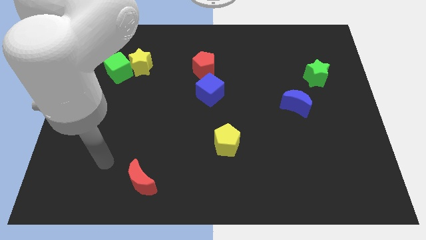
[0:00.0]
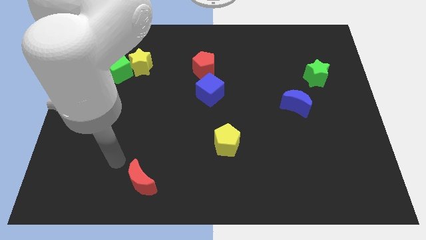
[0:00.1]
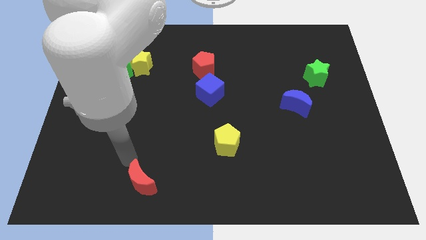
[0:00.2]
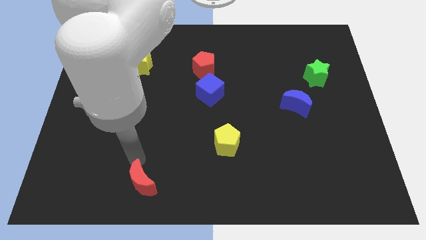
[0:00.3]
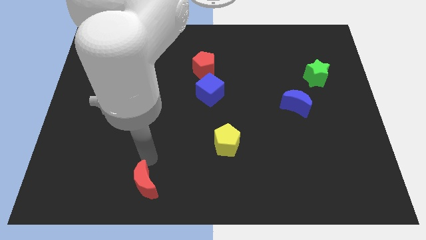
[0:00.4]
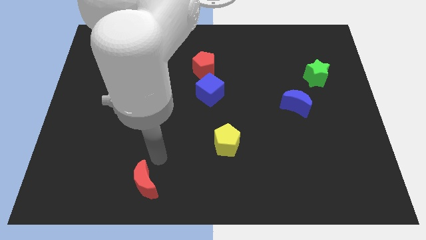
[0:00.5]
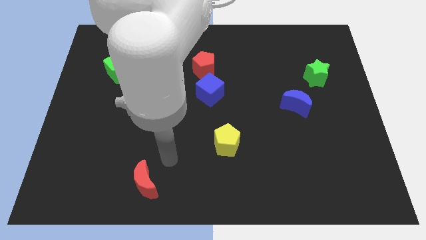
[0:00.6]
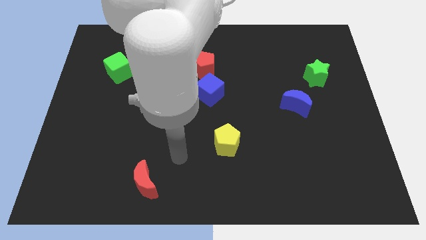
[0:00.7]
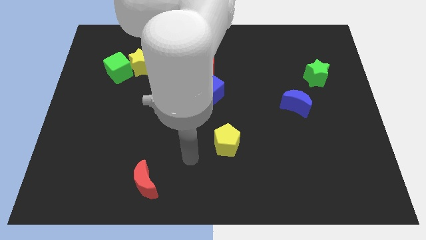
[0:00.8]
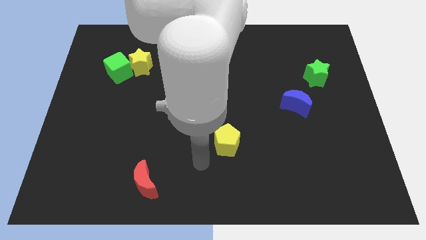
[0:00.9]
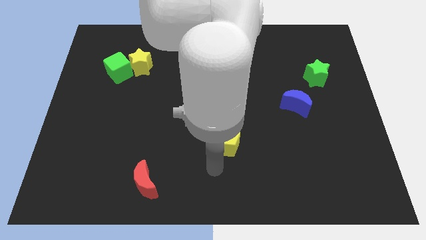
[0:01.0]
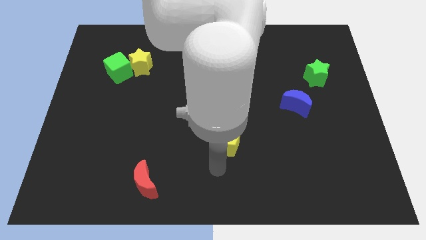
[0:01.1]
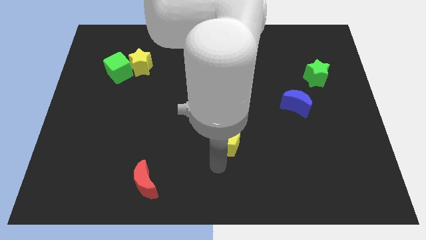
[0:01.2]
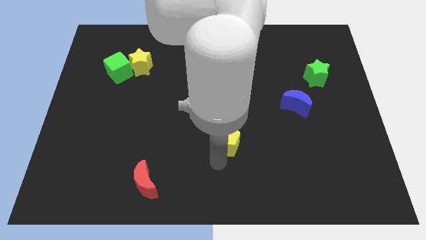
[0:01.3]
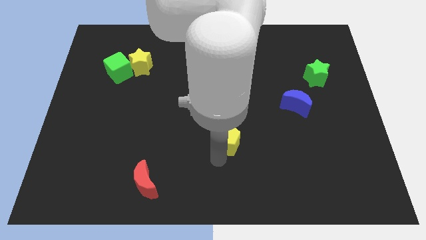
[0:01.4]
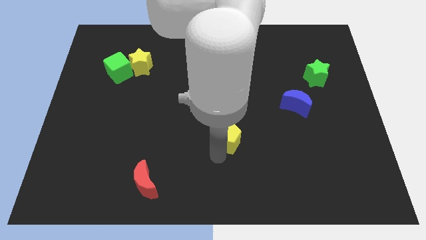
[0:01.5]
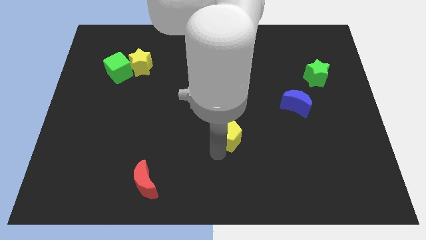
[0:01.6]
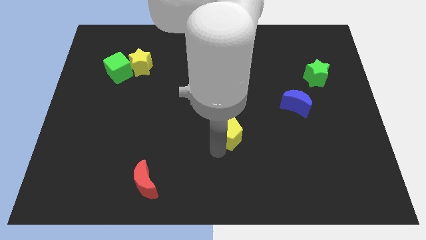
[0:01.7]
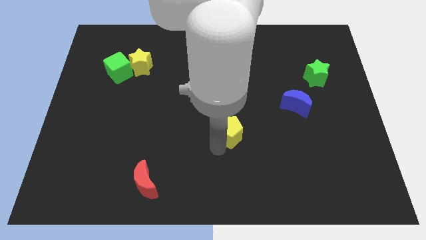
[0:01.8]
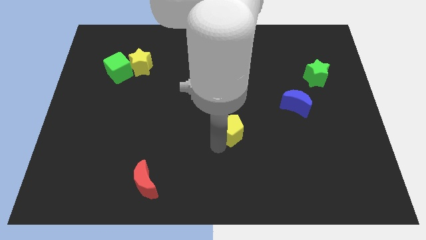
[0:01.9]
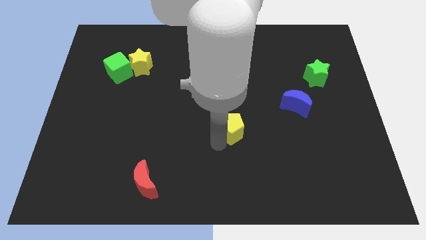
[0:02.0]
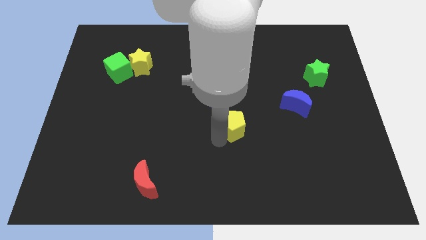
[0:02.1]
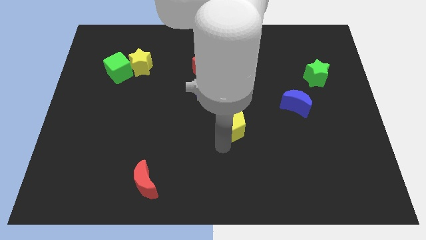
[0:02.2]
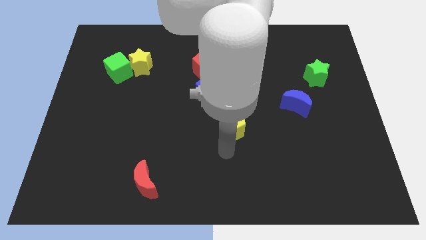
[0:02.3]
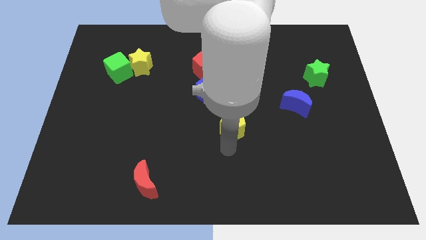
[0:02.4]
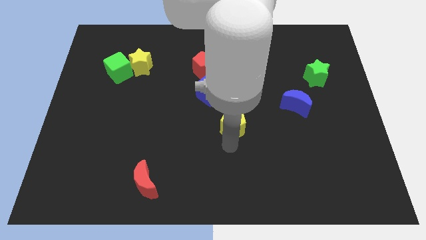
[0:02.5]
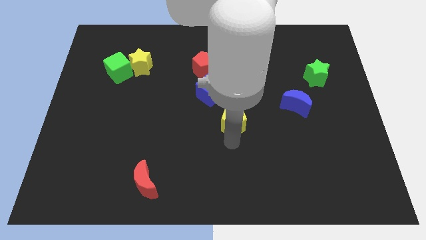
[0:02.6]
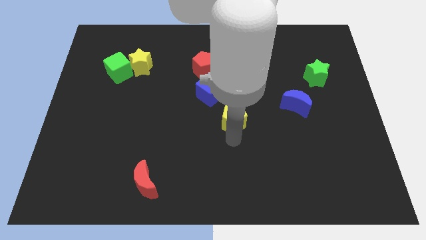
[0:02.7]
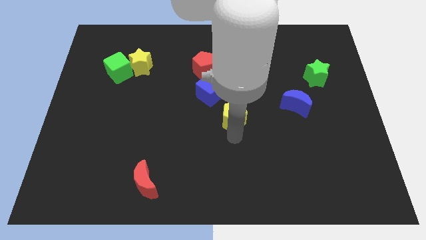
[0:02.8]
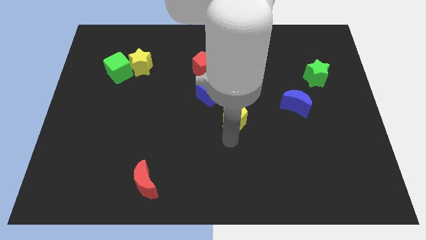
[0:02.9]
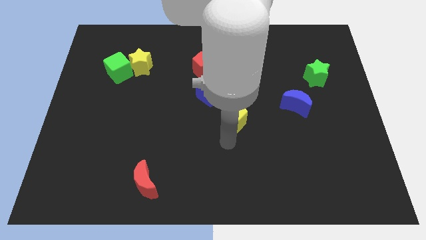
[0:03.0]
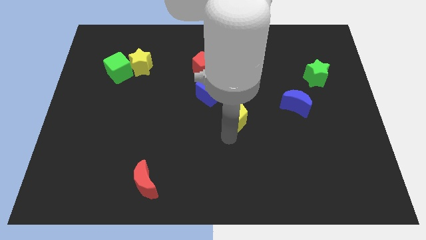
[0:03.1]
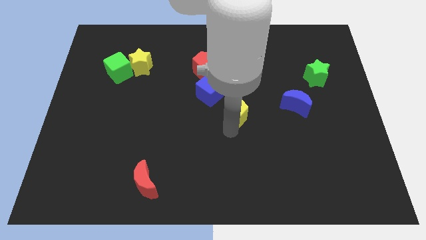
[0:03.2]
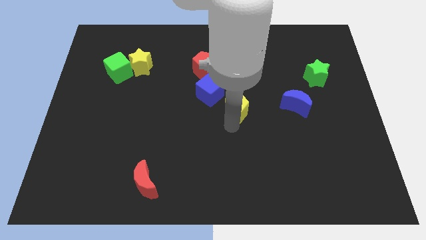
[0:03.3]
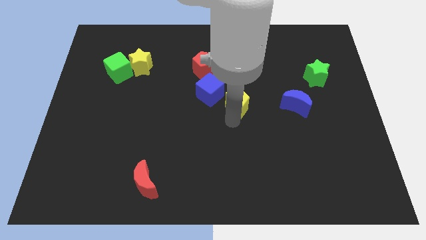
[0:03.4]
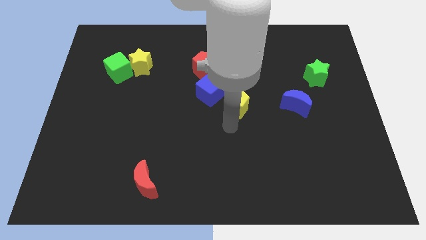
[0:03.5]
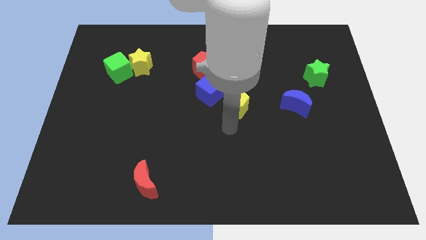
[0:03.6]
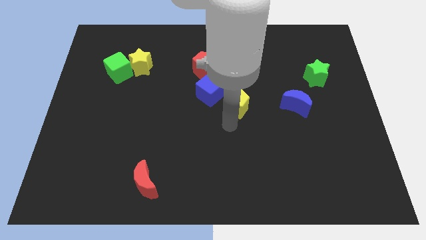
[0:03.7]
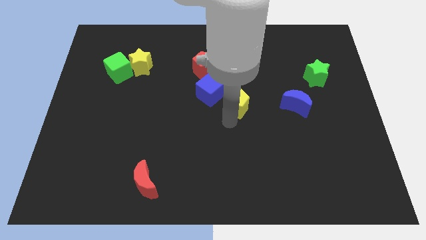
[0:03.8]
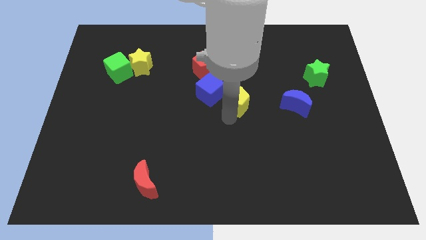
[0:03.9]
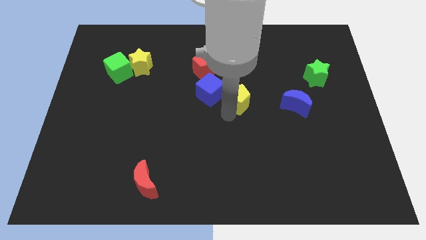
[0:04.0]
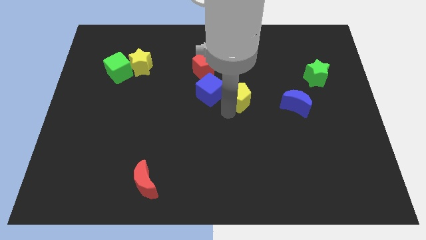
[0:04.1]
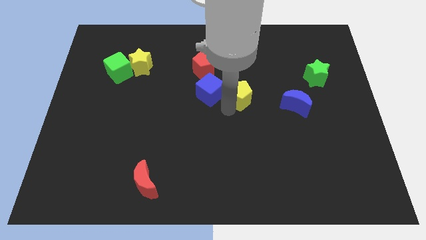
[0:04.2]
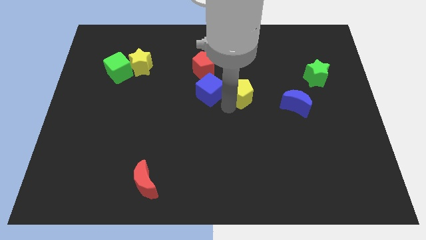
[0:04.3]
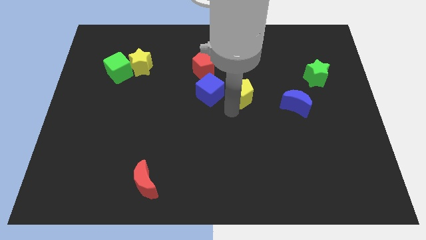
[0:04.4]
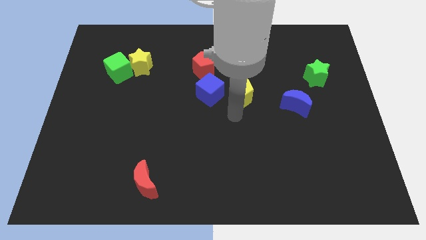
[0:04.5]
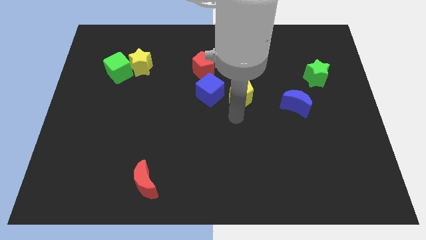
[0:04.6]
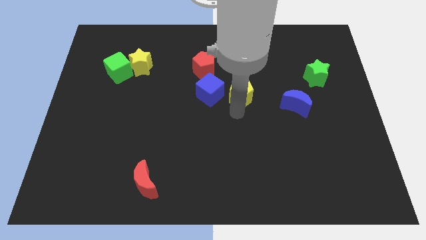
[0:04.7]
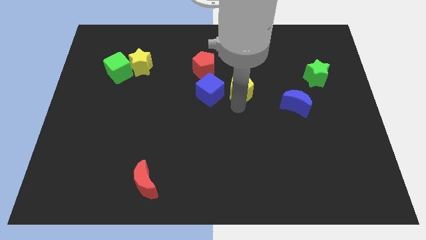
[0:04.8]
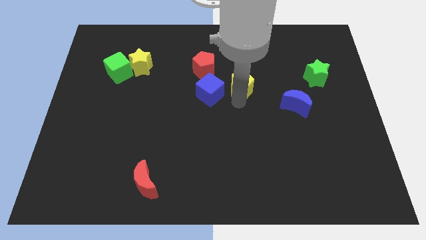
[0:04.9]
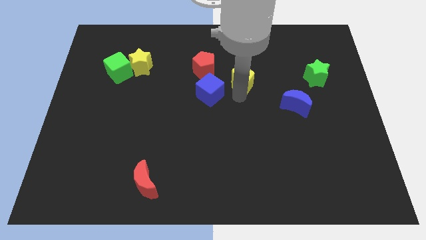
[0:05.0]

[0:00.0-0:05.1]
push the yellow pentagon just right of the red pentagon

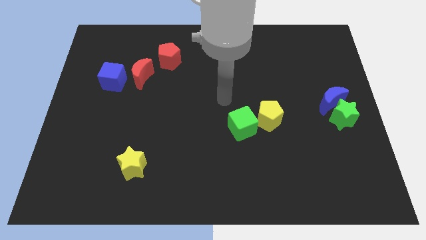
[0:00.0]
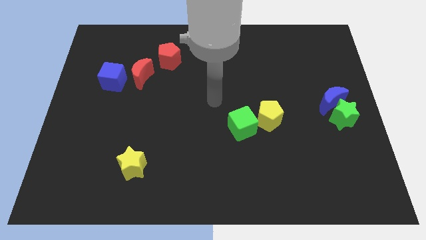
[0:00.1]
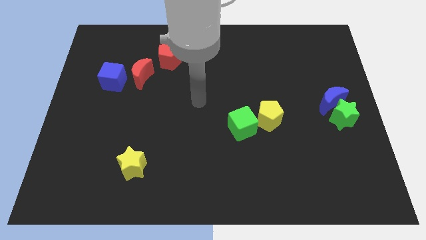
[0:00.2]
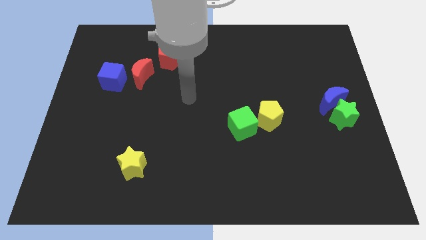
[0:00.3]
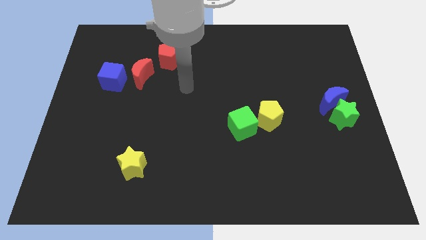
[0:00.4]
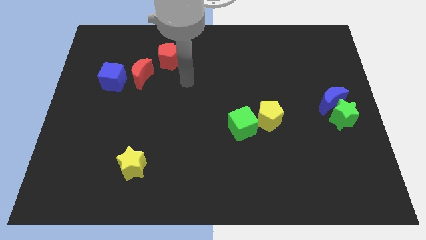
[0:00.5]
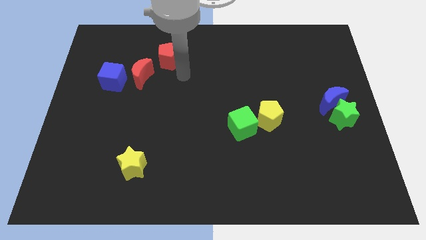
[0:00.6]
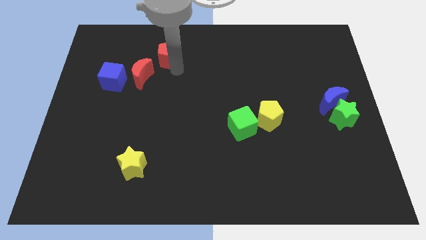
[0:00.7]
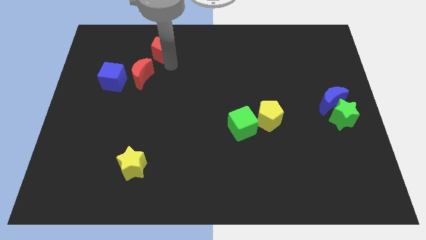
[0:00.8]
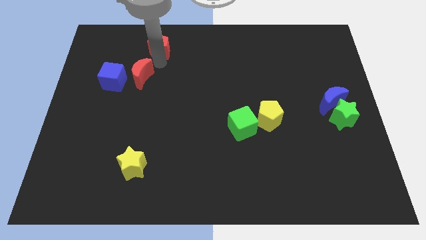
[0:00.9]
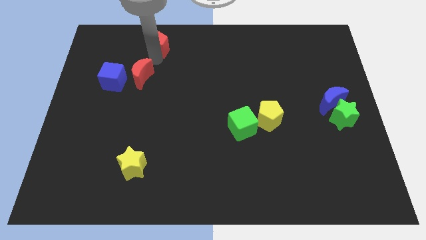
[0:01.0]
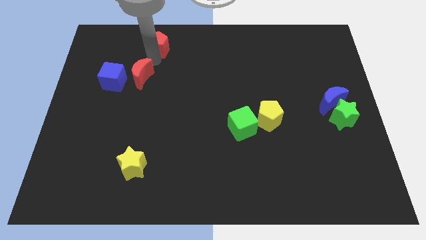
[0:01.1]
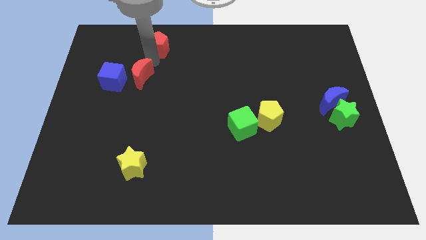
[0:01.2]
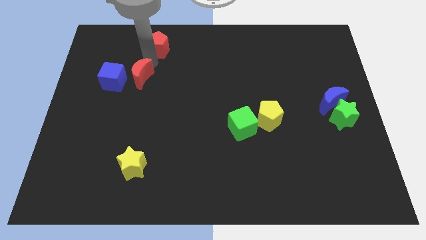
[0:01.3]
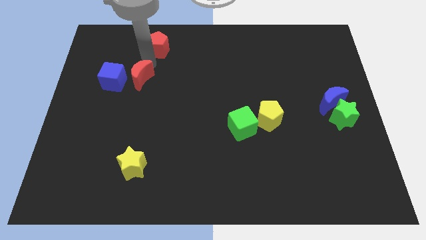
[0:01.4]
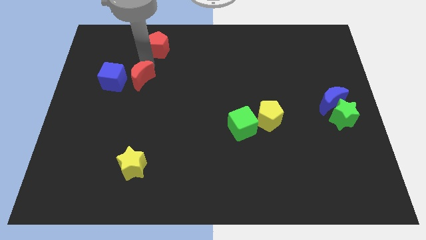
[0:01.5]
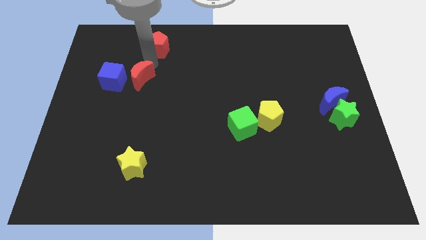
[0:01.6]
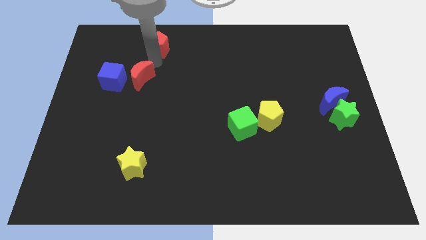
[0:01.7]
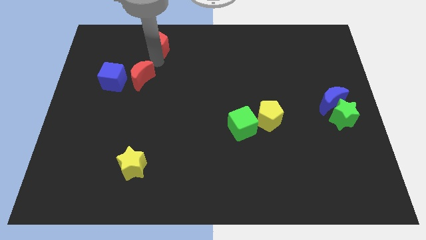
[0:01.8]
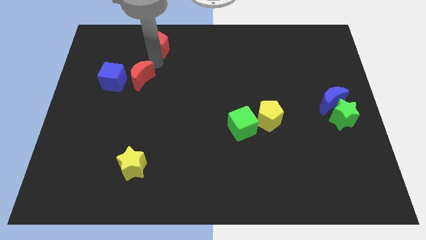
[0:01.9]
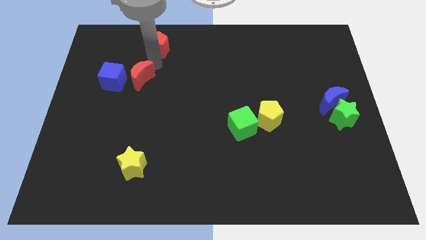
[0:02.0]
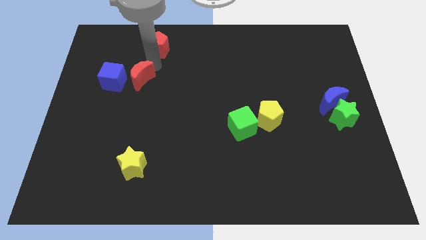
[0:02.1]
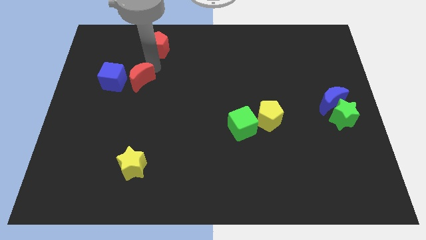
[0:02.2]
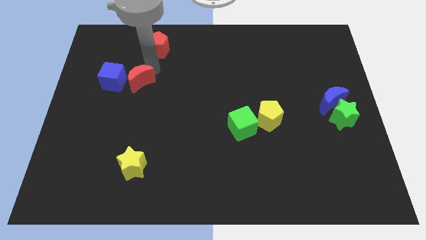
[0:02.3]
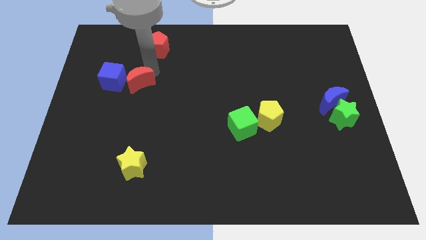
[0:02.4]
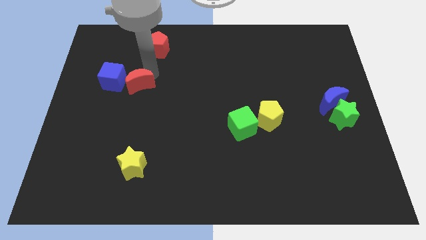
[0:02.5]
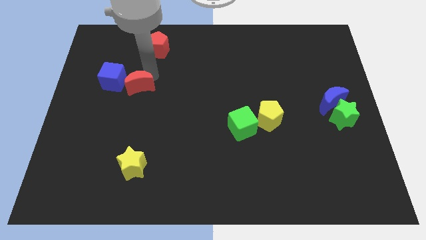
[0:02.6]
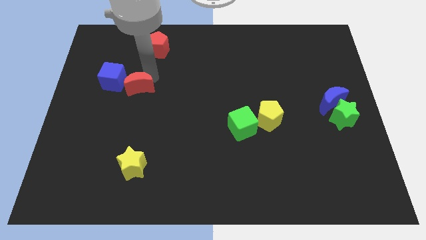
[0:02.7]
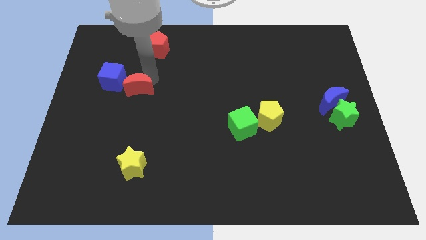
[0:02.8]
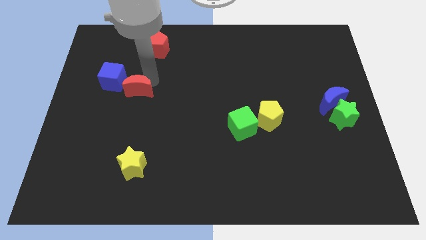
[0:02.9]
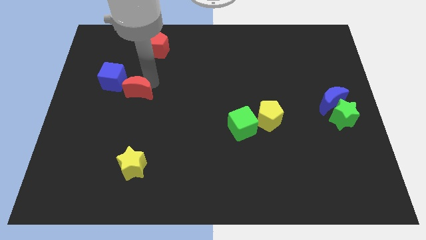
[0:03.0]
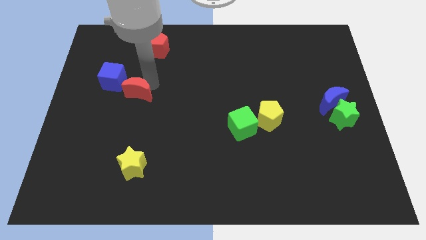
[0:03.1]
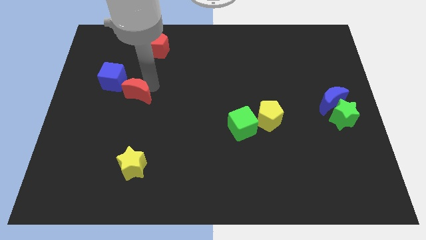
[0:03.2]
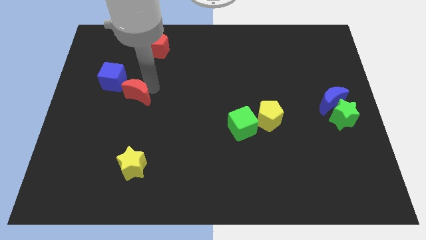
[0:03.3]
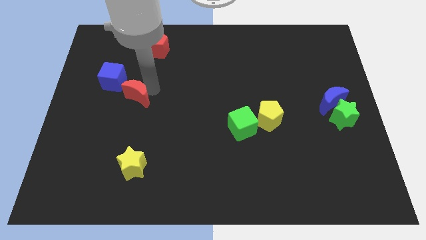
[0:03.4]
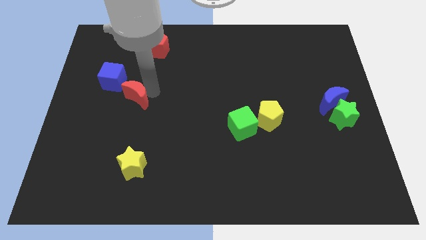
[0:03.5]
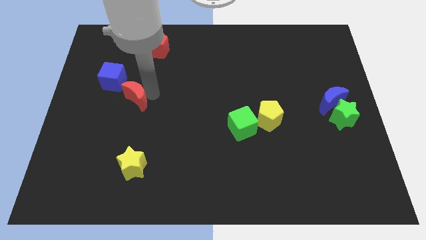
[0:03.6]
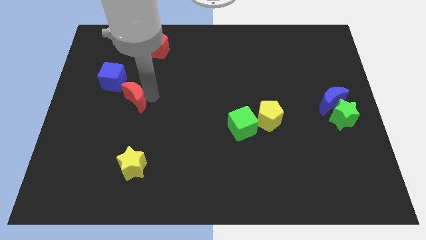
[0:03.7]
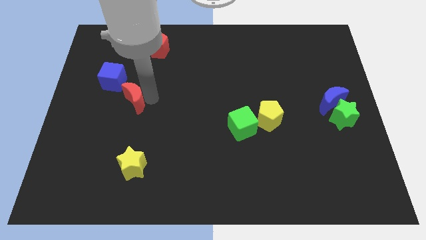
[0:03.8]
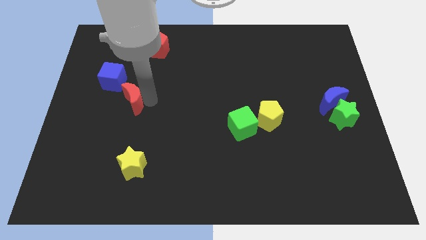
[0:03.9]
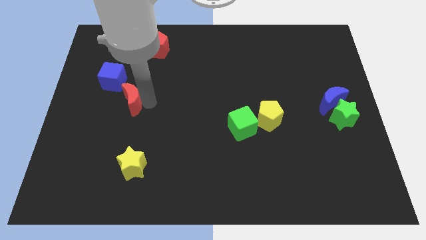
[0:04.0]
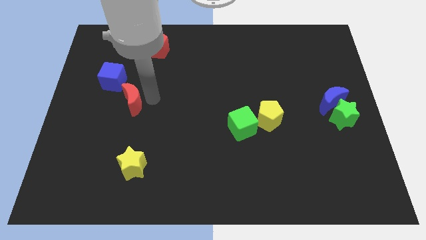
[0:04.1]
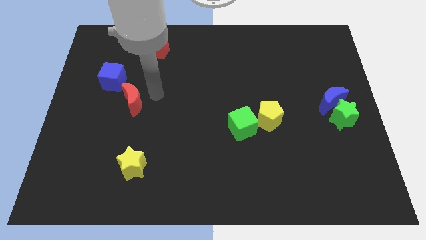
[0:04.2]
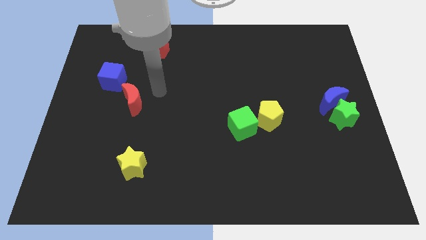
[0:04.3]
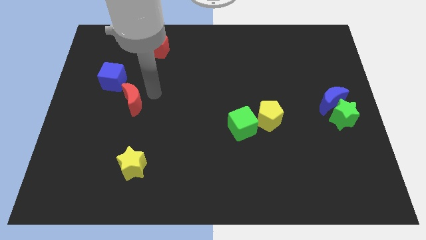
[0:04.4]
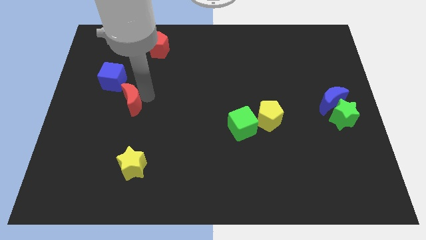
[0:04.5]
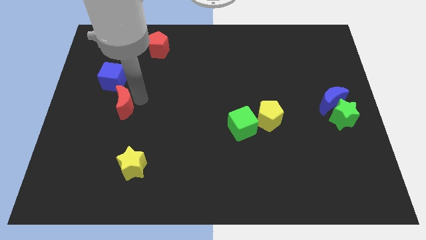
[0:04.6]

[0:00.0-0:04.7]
move the red moon below the blue cube
